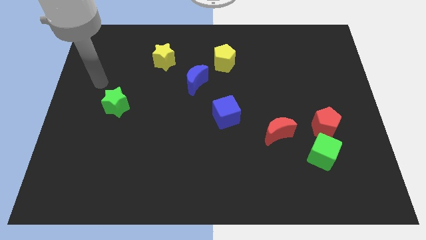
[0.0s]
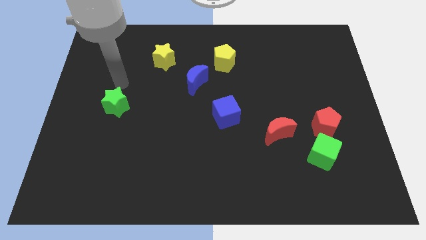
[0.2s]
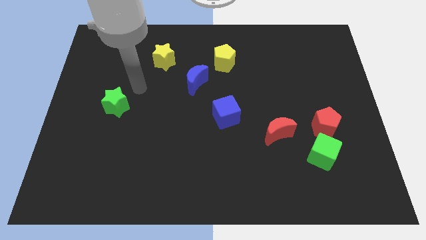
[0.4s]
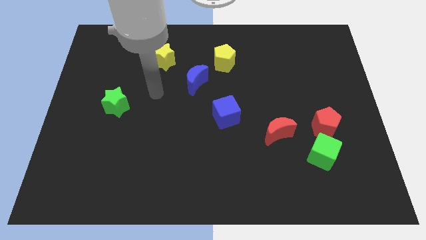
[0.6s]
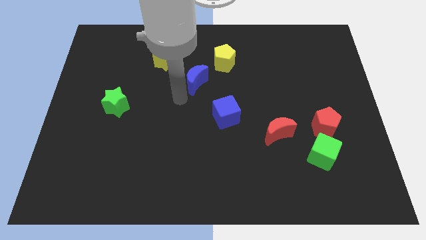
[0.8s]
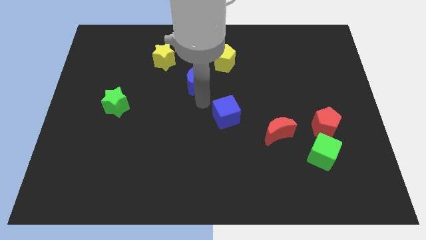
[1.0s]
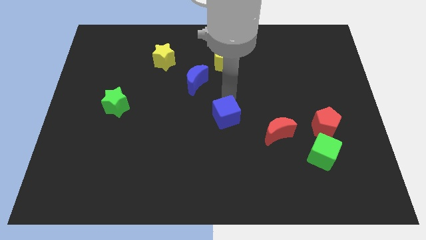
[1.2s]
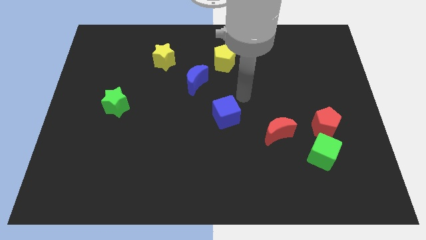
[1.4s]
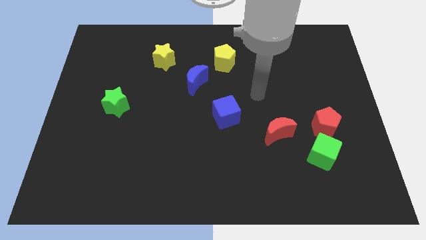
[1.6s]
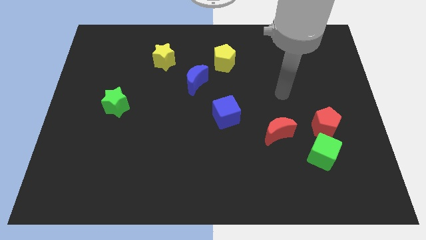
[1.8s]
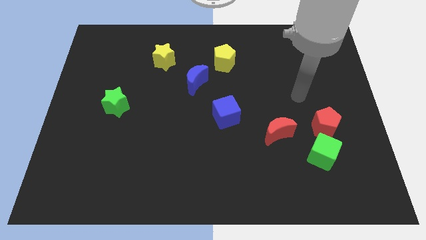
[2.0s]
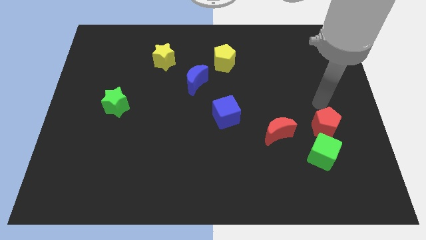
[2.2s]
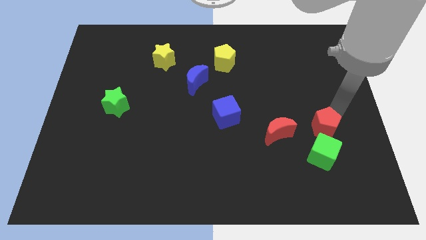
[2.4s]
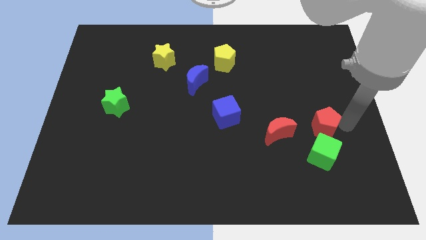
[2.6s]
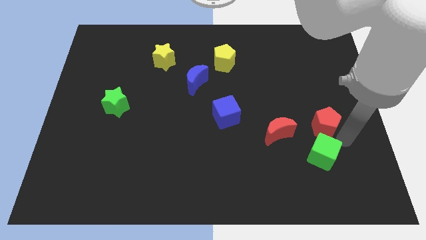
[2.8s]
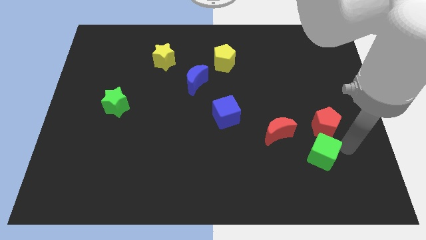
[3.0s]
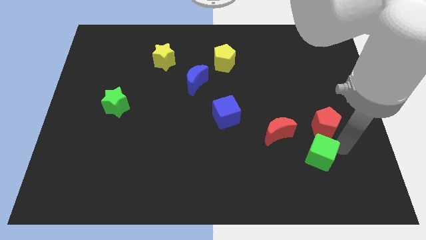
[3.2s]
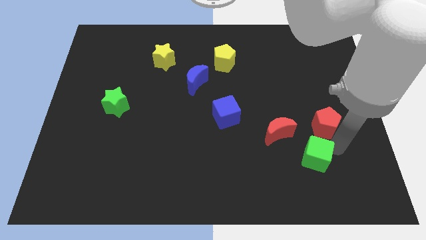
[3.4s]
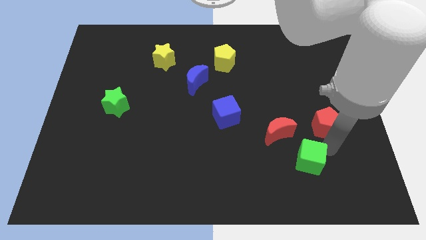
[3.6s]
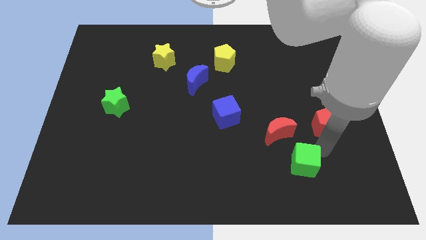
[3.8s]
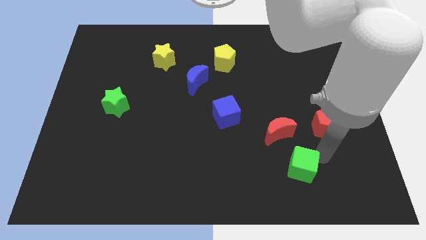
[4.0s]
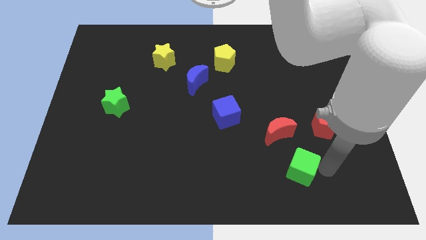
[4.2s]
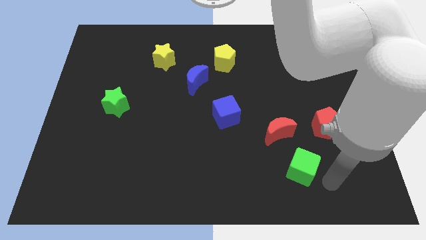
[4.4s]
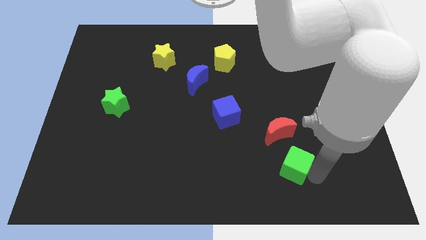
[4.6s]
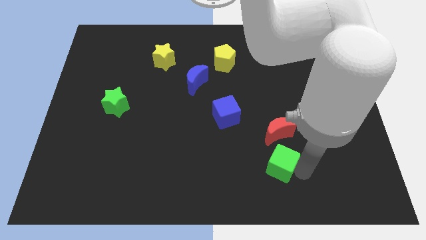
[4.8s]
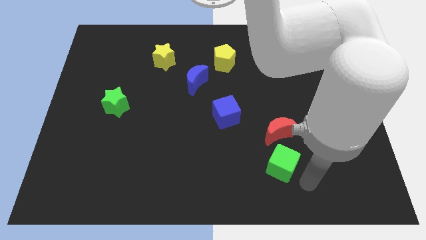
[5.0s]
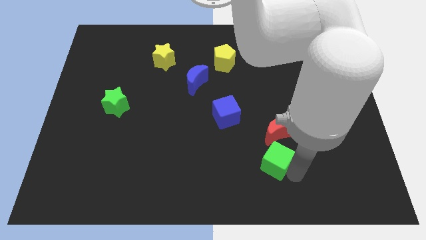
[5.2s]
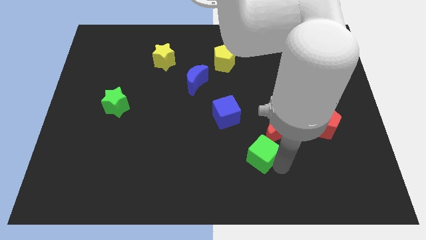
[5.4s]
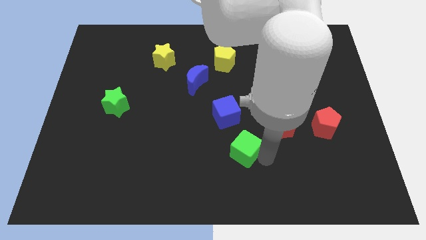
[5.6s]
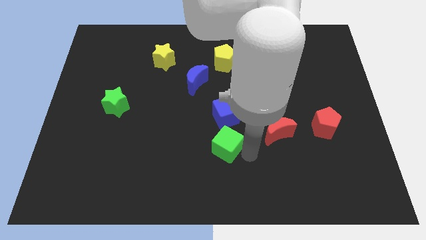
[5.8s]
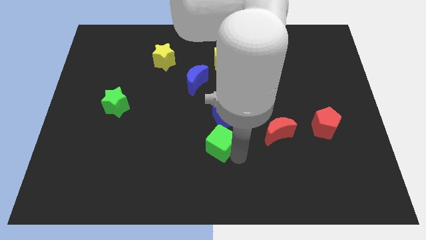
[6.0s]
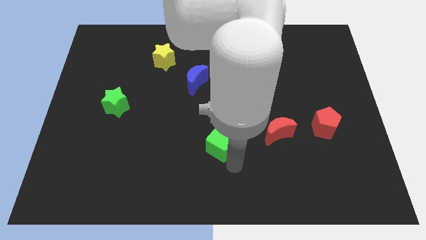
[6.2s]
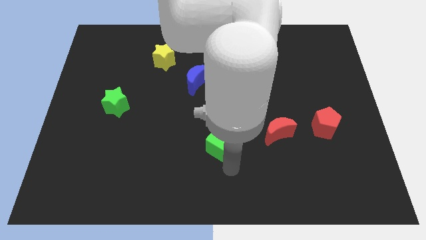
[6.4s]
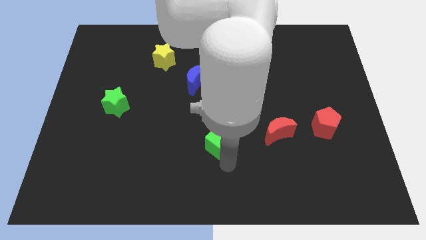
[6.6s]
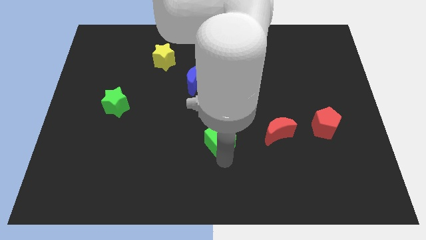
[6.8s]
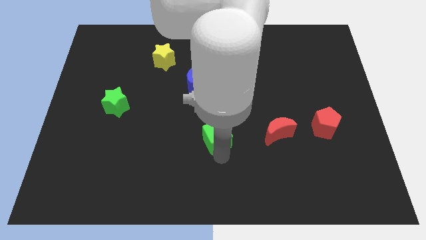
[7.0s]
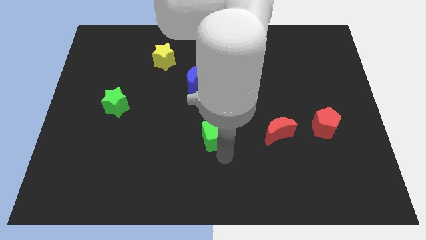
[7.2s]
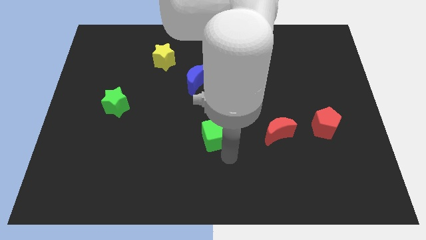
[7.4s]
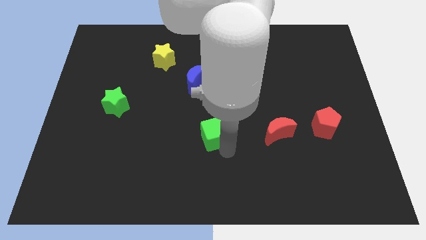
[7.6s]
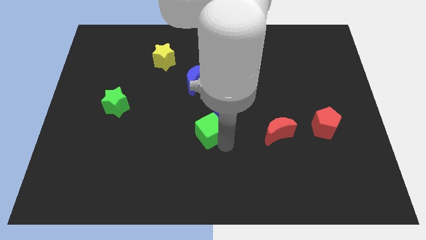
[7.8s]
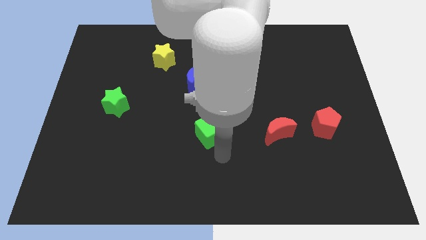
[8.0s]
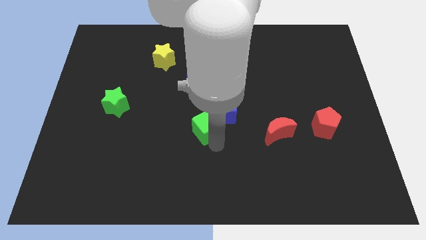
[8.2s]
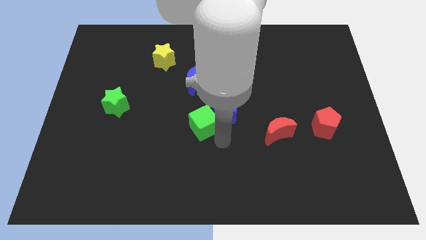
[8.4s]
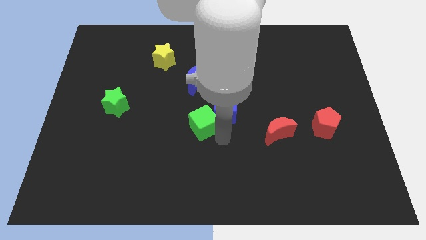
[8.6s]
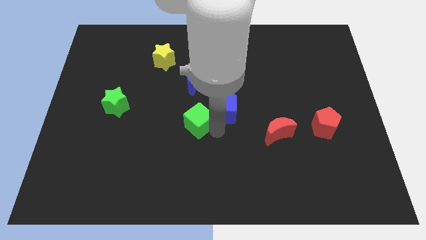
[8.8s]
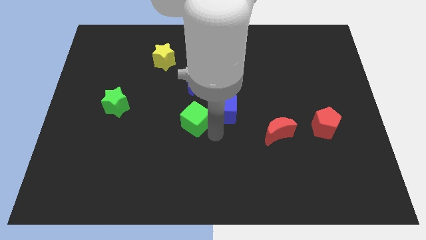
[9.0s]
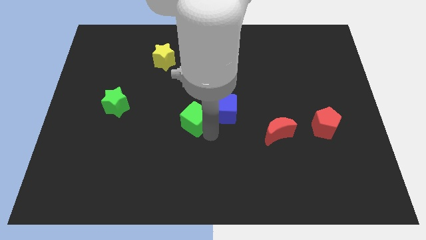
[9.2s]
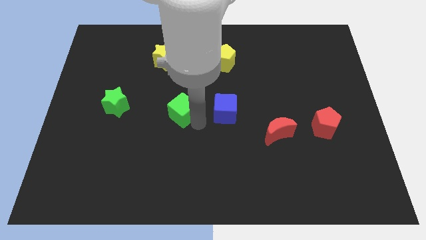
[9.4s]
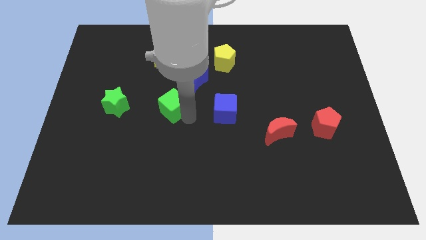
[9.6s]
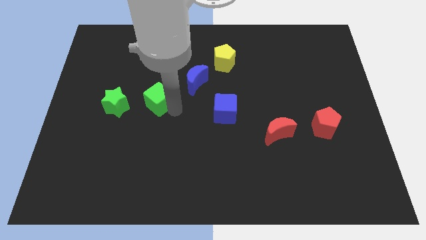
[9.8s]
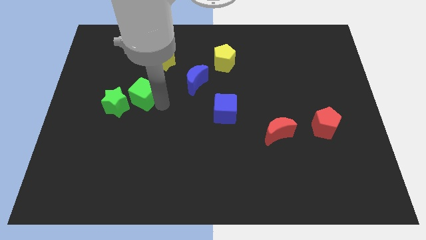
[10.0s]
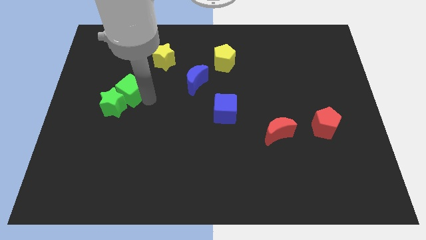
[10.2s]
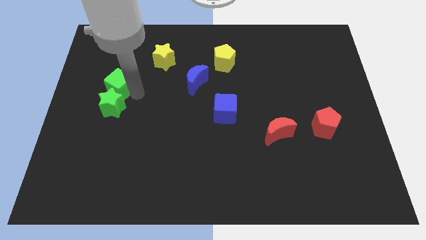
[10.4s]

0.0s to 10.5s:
slide the green cube to the top left side of the green star

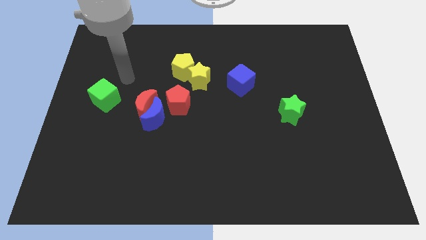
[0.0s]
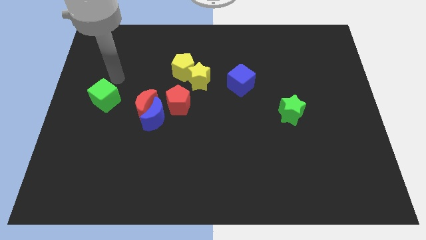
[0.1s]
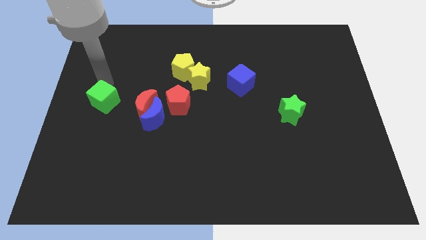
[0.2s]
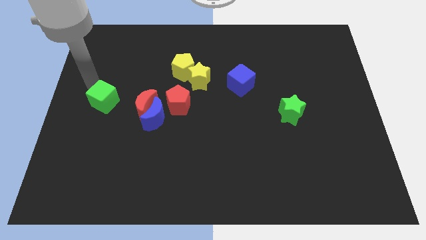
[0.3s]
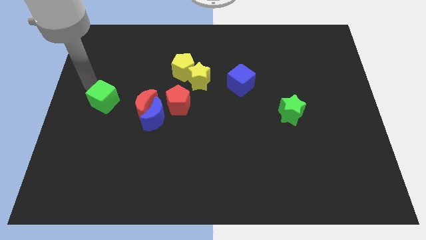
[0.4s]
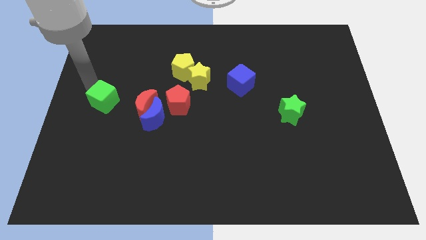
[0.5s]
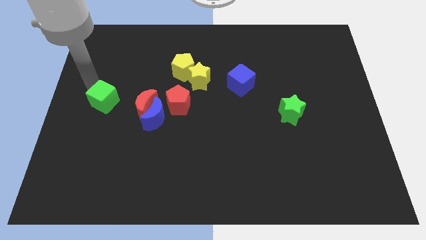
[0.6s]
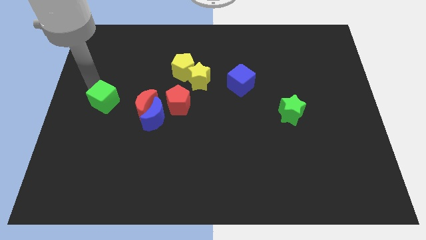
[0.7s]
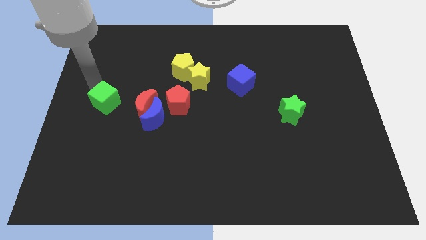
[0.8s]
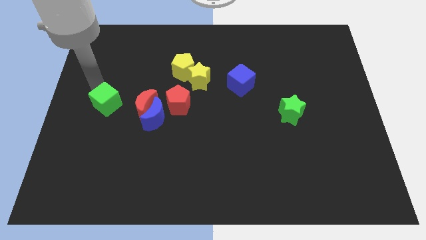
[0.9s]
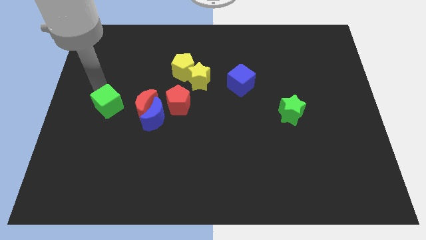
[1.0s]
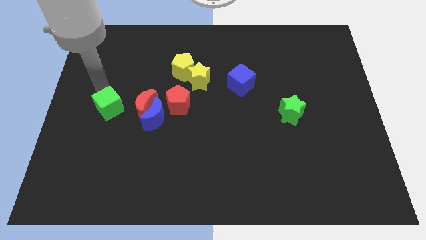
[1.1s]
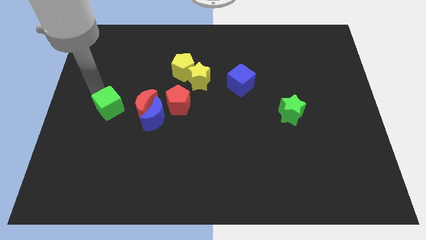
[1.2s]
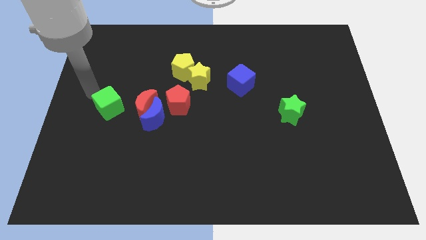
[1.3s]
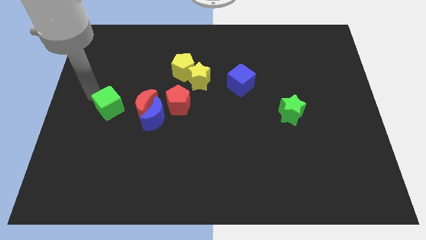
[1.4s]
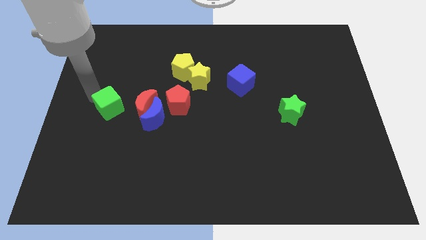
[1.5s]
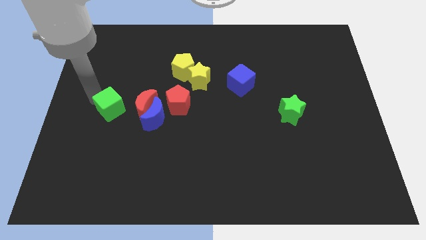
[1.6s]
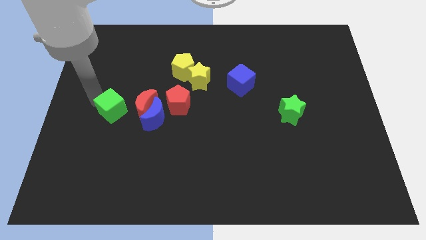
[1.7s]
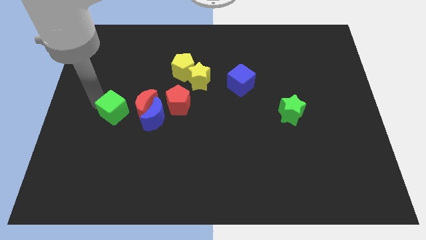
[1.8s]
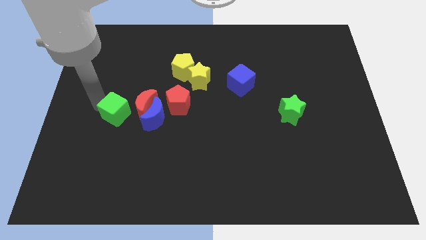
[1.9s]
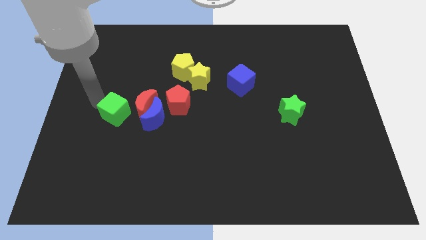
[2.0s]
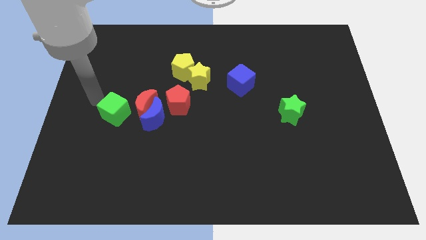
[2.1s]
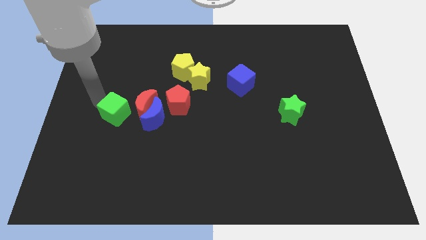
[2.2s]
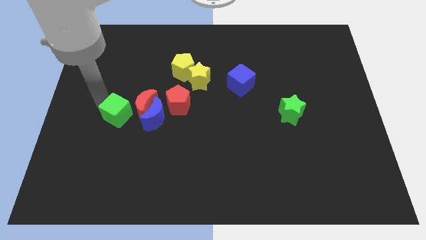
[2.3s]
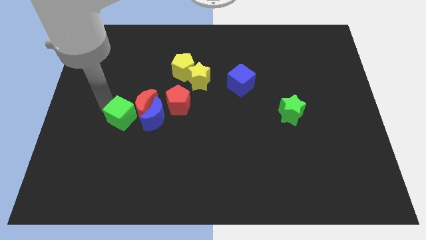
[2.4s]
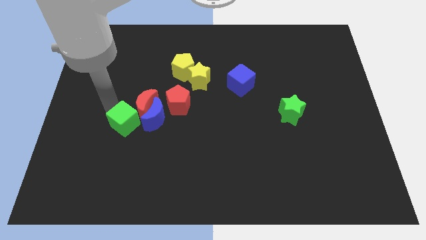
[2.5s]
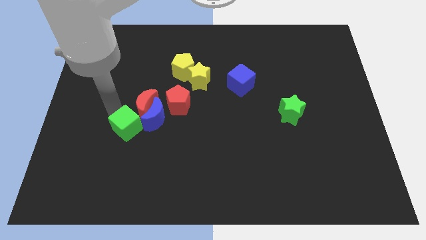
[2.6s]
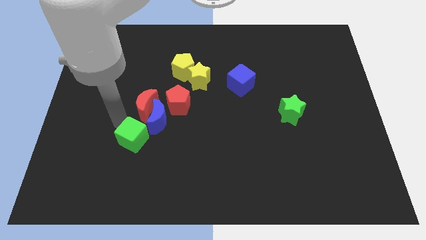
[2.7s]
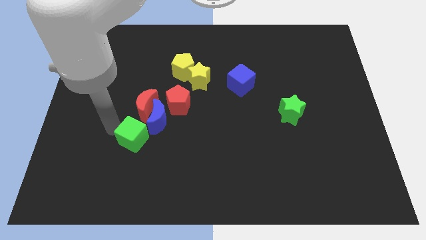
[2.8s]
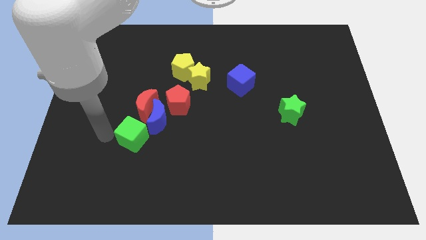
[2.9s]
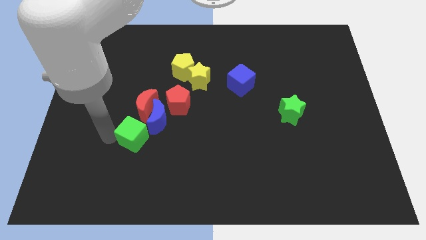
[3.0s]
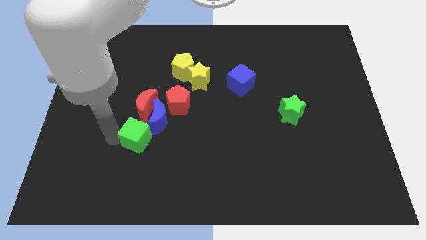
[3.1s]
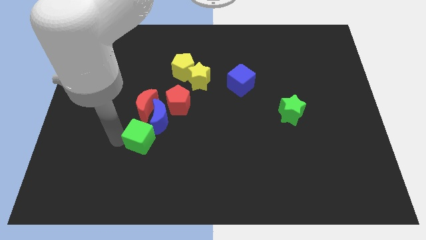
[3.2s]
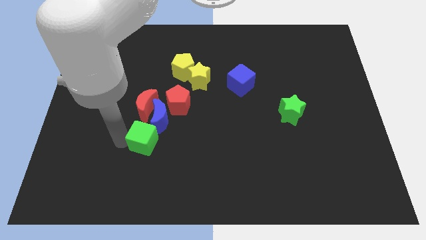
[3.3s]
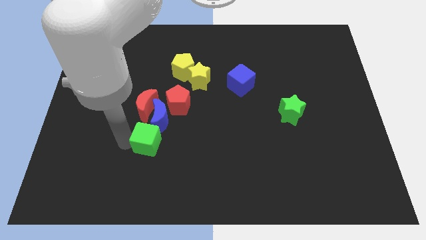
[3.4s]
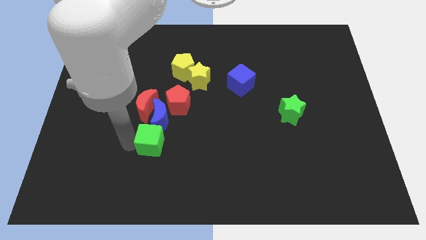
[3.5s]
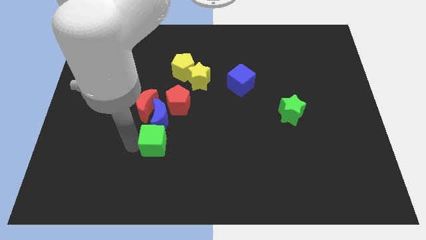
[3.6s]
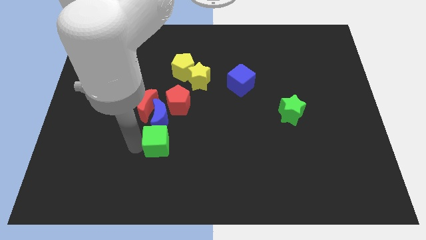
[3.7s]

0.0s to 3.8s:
put the green cube diagonally down and to the right of the blue moon
